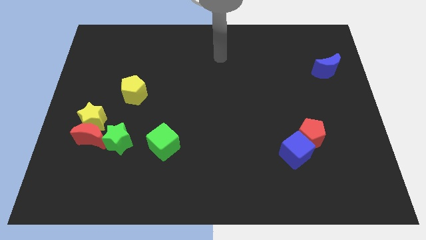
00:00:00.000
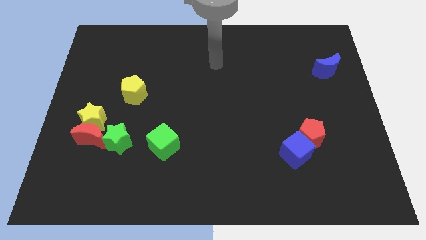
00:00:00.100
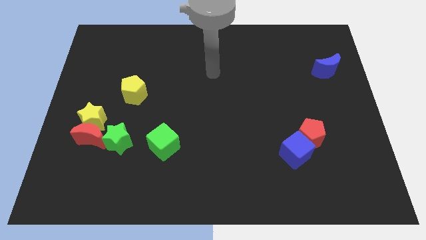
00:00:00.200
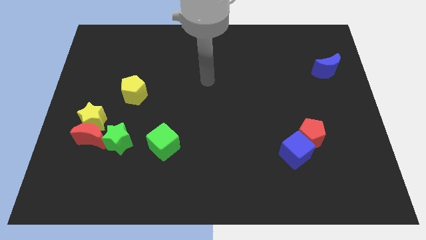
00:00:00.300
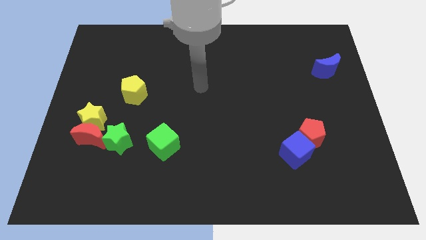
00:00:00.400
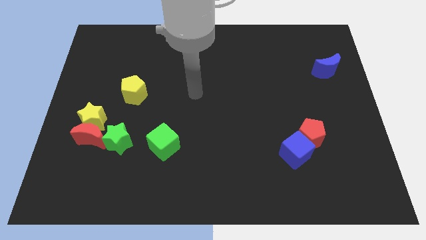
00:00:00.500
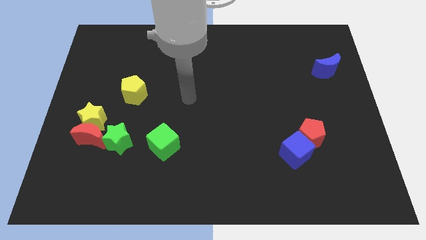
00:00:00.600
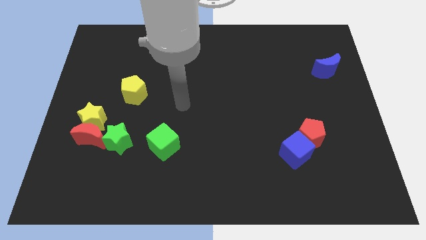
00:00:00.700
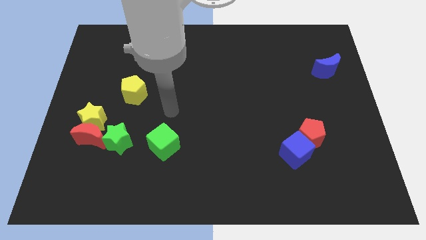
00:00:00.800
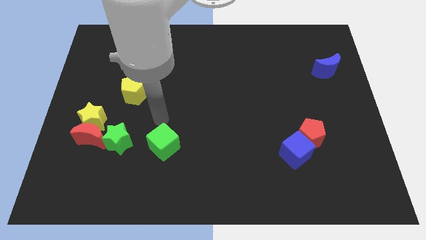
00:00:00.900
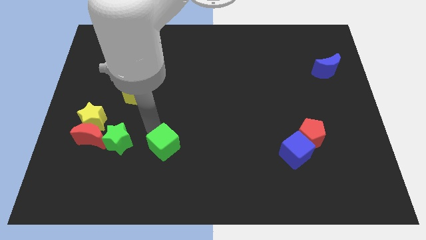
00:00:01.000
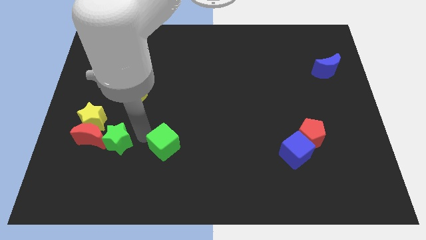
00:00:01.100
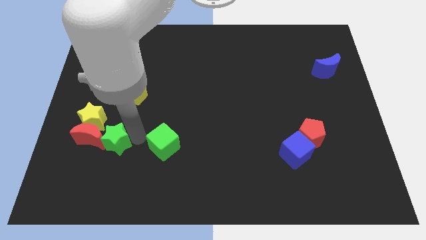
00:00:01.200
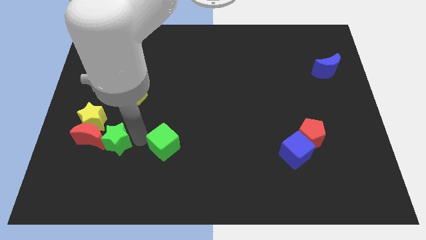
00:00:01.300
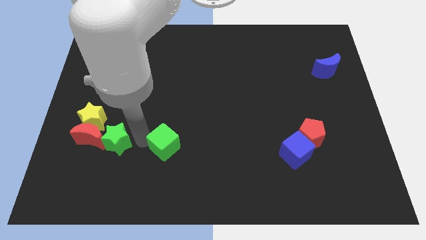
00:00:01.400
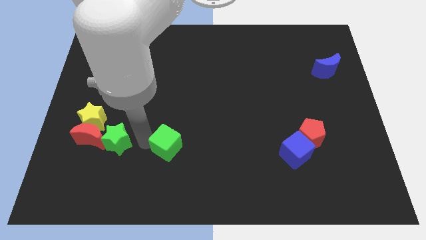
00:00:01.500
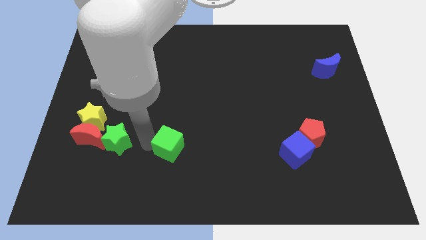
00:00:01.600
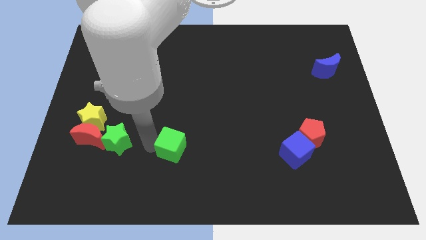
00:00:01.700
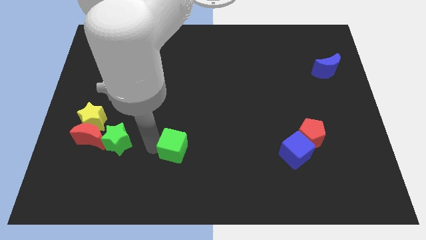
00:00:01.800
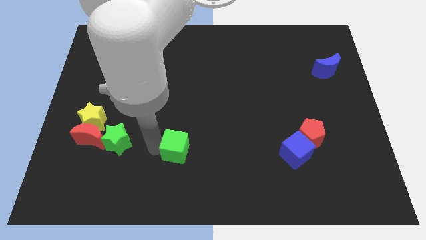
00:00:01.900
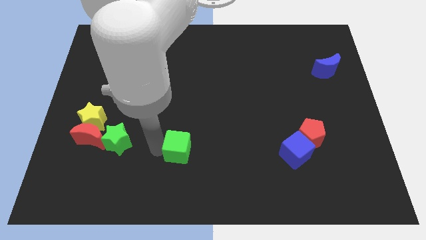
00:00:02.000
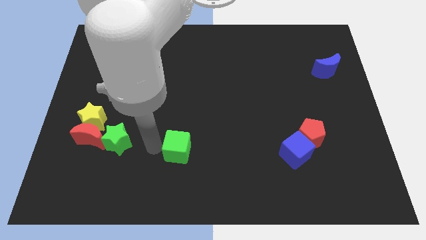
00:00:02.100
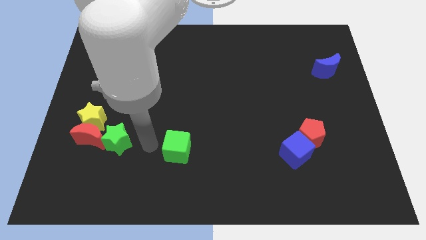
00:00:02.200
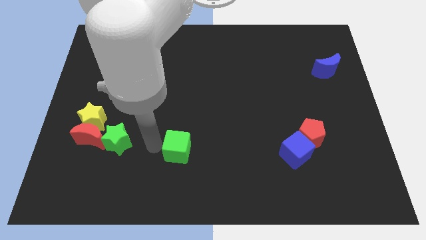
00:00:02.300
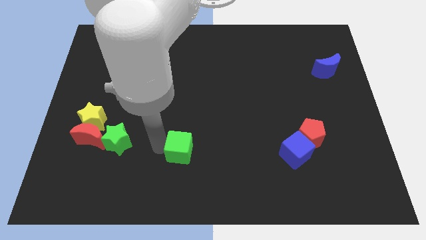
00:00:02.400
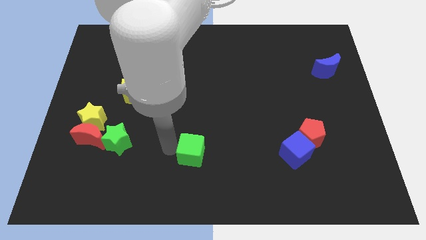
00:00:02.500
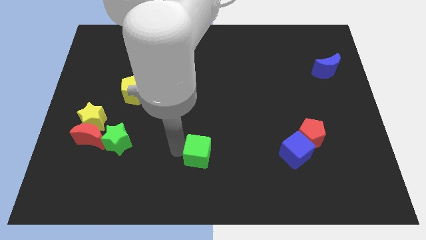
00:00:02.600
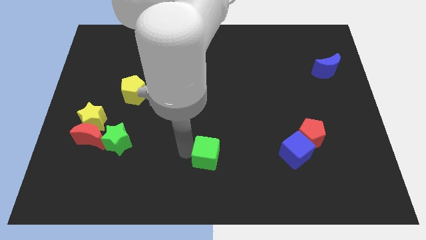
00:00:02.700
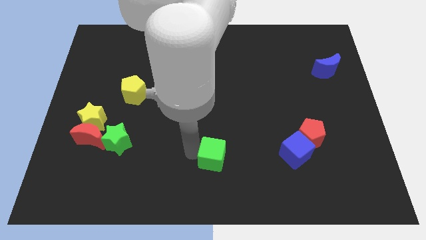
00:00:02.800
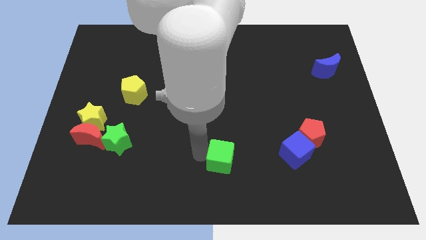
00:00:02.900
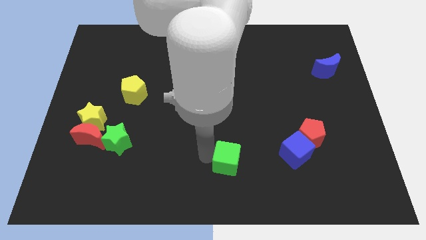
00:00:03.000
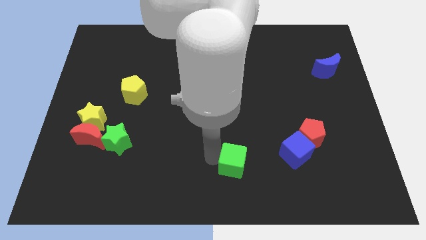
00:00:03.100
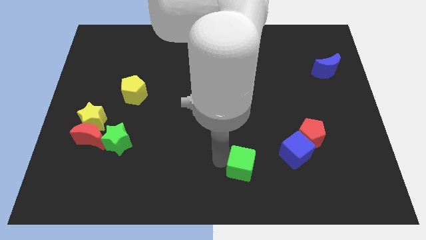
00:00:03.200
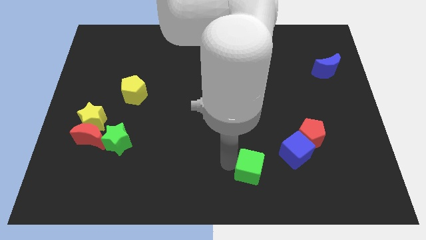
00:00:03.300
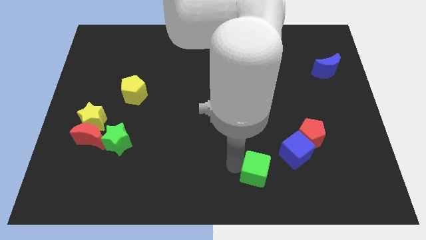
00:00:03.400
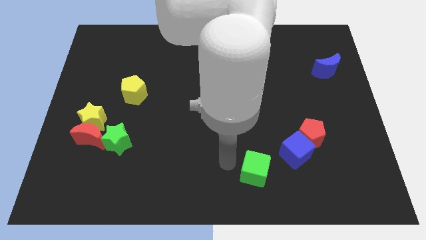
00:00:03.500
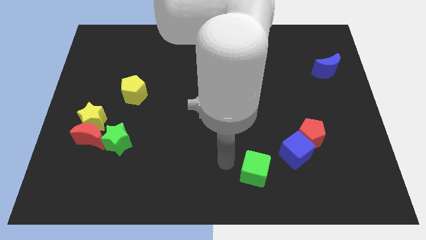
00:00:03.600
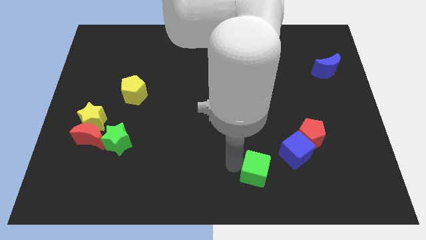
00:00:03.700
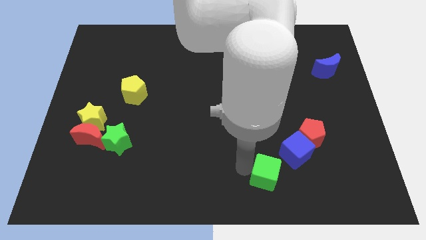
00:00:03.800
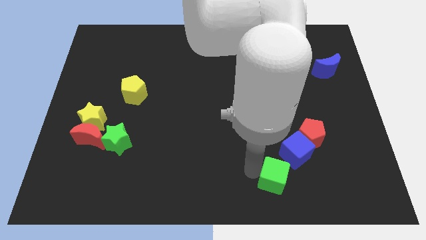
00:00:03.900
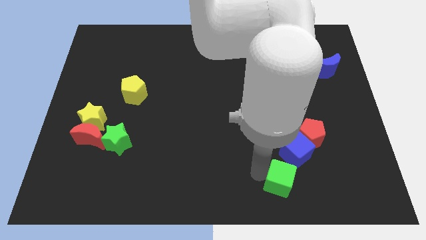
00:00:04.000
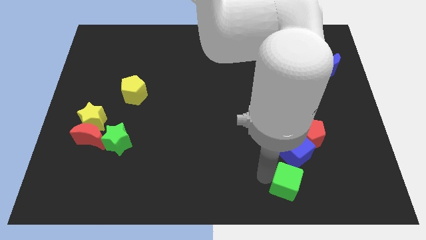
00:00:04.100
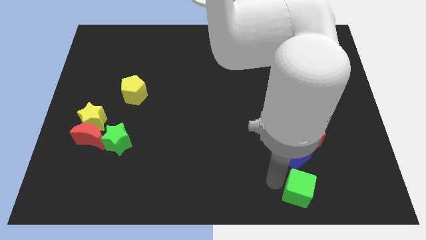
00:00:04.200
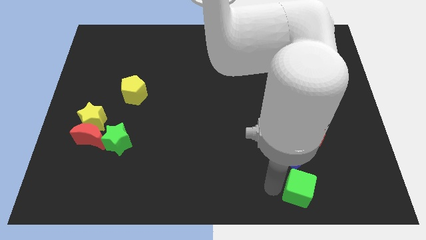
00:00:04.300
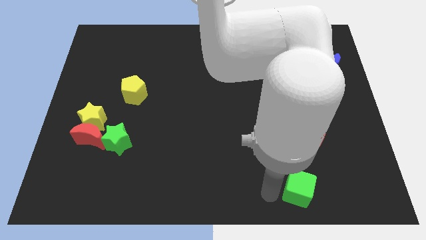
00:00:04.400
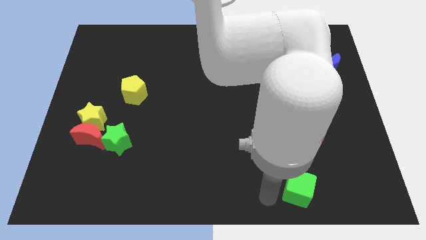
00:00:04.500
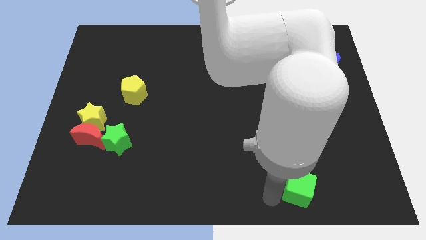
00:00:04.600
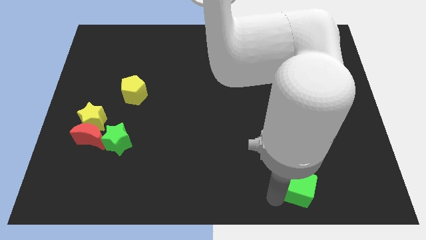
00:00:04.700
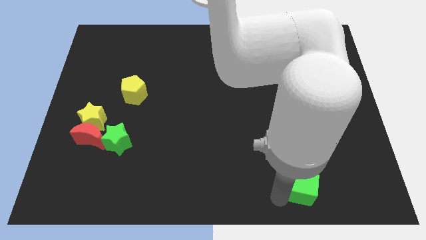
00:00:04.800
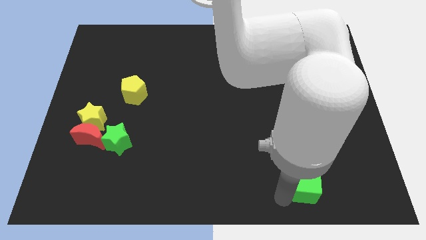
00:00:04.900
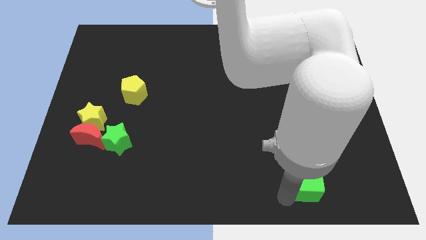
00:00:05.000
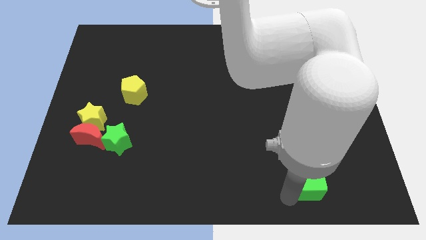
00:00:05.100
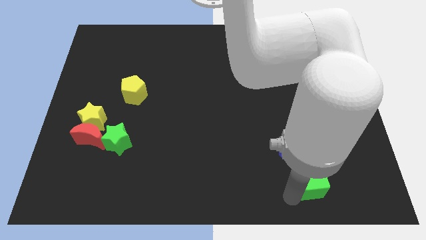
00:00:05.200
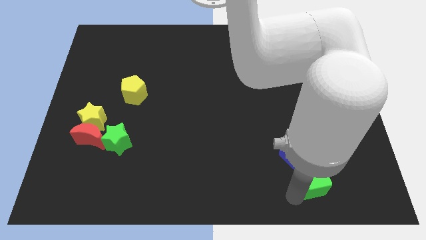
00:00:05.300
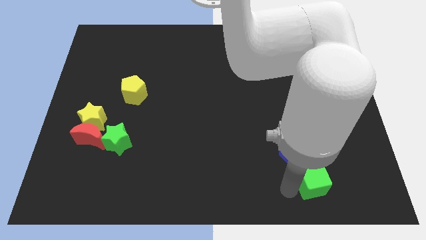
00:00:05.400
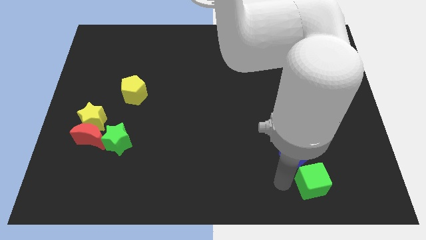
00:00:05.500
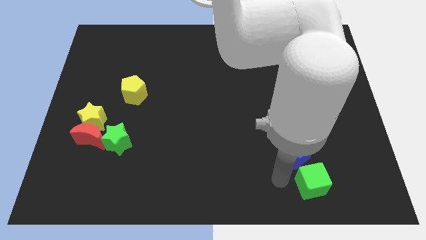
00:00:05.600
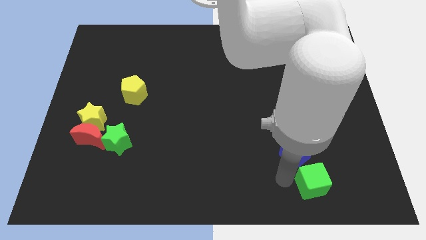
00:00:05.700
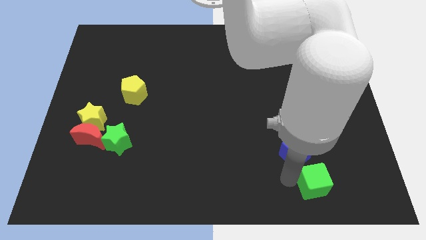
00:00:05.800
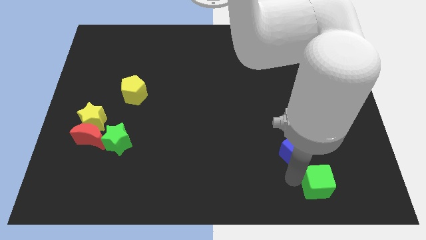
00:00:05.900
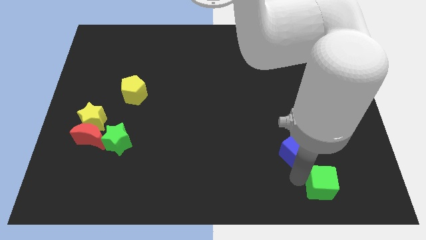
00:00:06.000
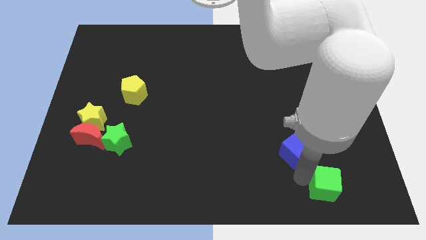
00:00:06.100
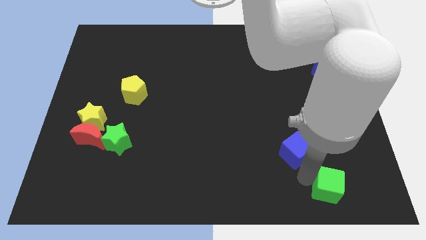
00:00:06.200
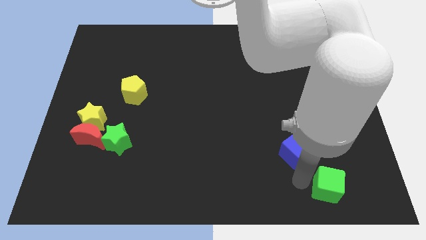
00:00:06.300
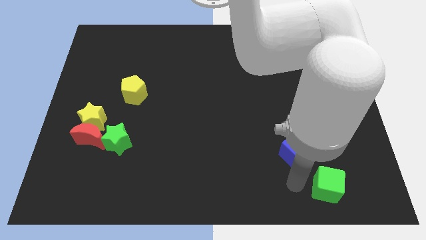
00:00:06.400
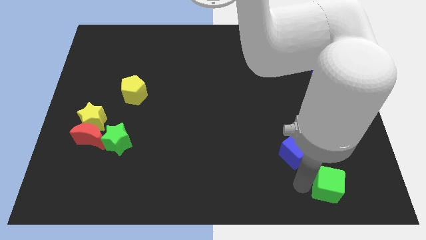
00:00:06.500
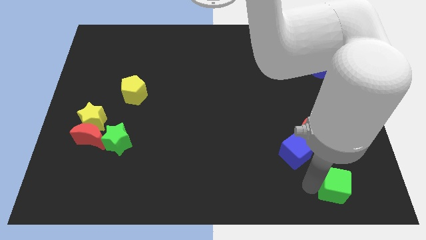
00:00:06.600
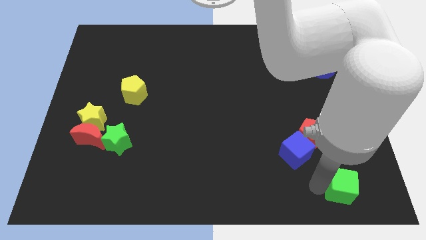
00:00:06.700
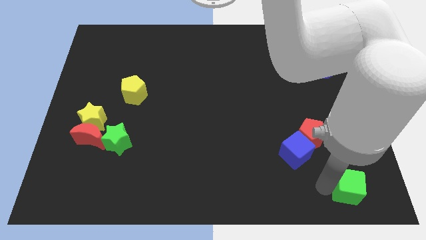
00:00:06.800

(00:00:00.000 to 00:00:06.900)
slide the green cube to the bottom right of the board
